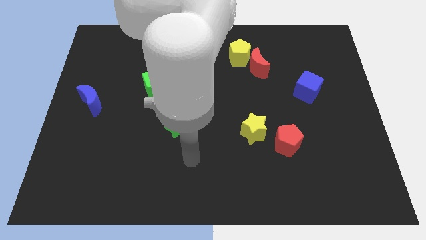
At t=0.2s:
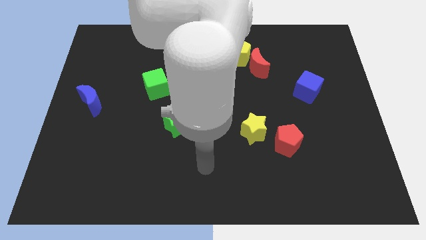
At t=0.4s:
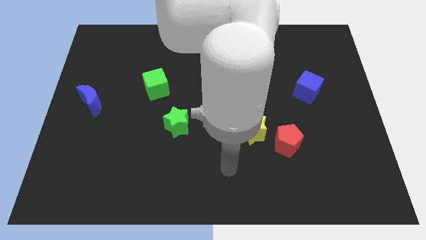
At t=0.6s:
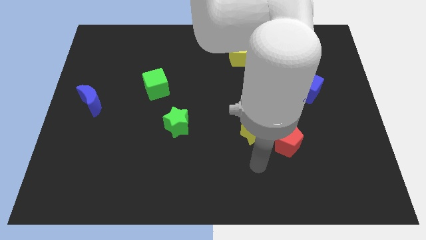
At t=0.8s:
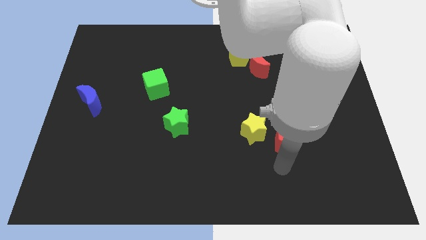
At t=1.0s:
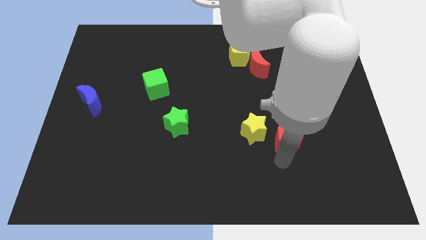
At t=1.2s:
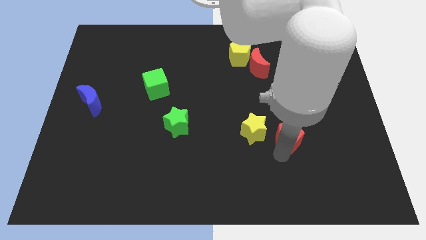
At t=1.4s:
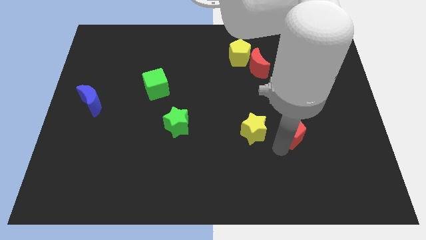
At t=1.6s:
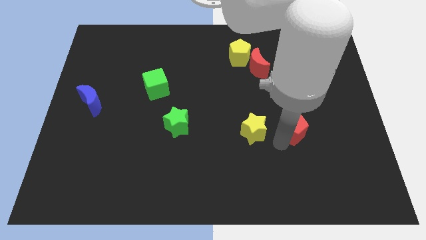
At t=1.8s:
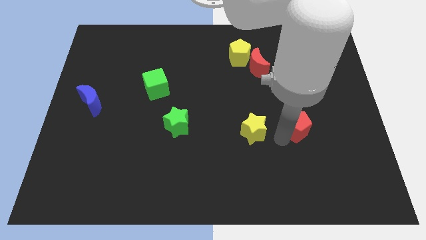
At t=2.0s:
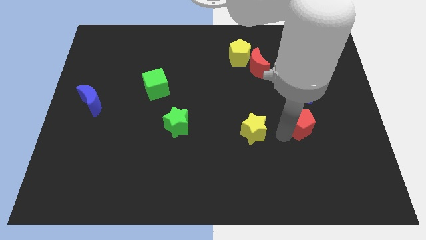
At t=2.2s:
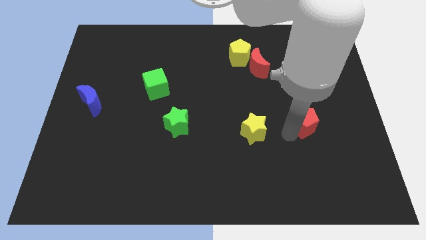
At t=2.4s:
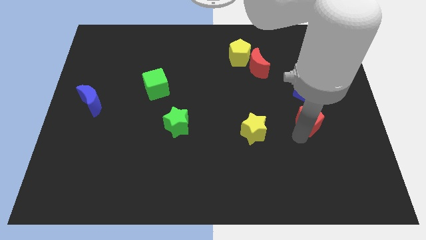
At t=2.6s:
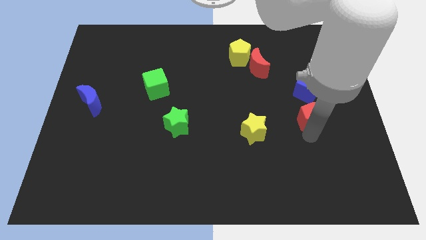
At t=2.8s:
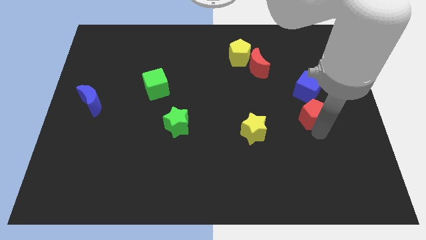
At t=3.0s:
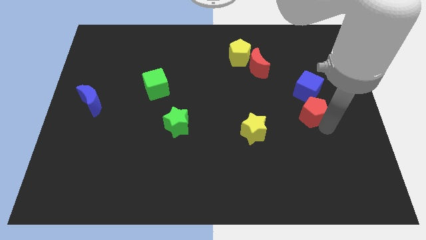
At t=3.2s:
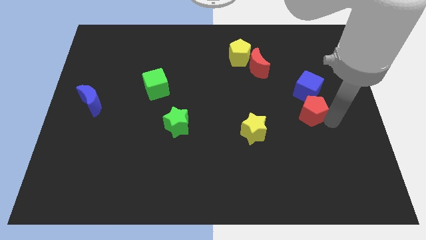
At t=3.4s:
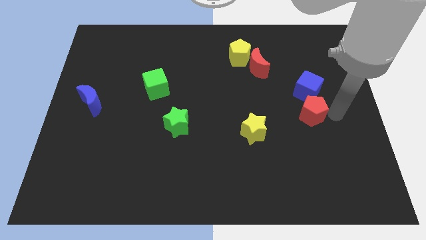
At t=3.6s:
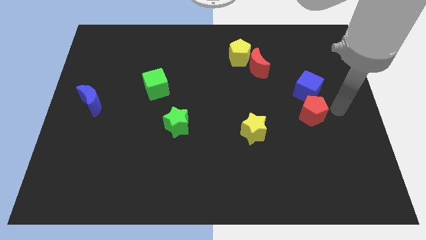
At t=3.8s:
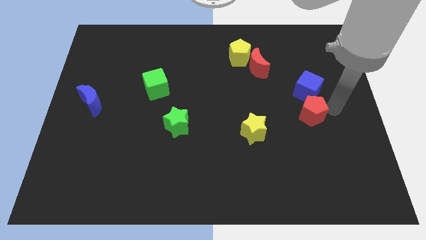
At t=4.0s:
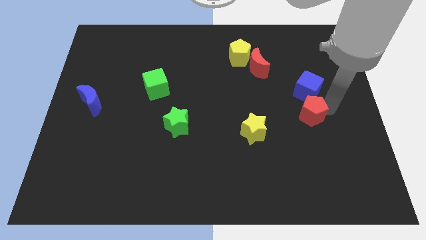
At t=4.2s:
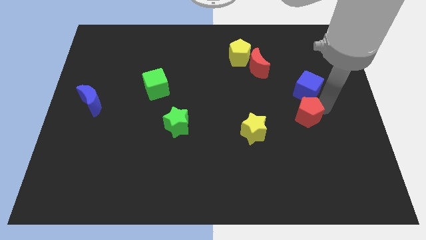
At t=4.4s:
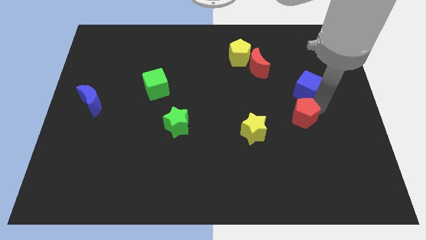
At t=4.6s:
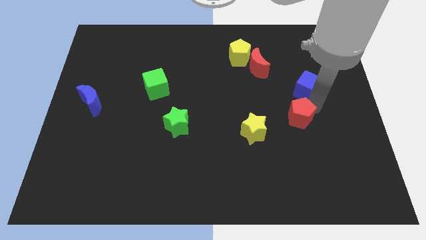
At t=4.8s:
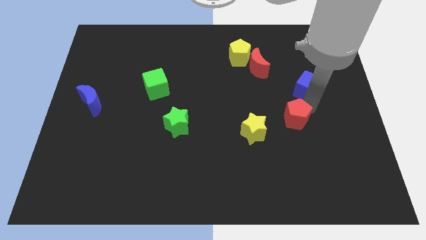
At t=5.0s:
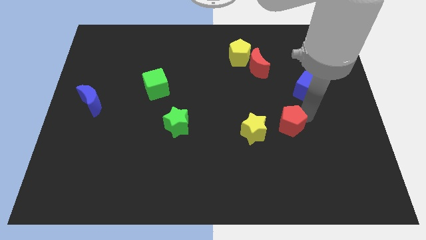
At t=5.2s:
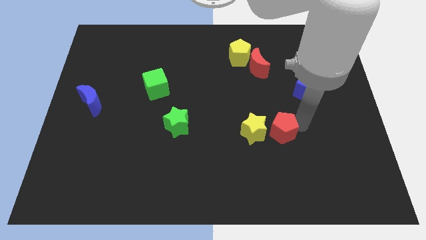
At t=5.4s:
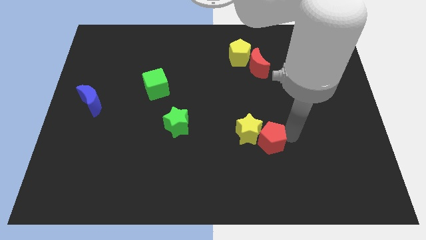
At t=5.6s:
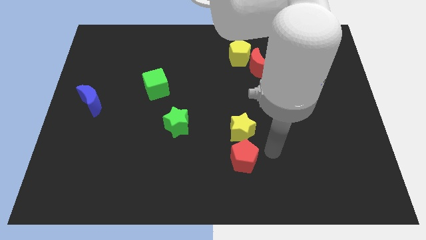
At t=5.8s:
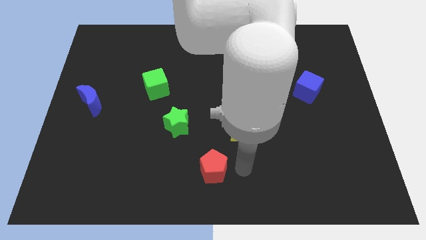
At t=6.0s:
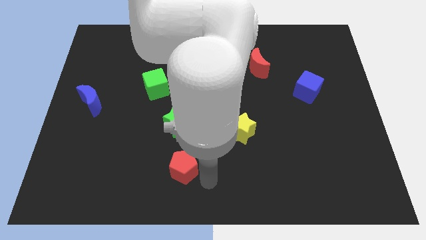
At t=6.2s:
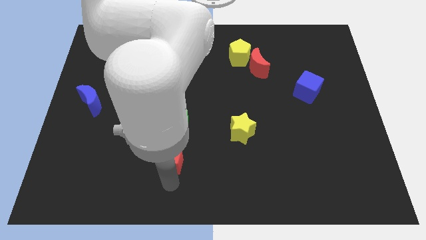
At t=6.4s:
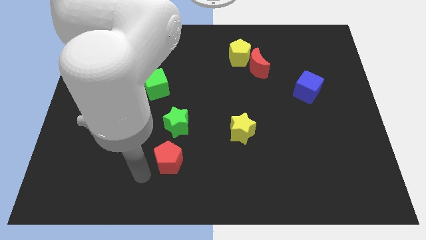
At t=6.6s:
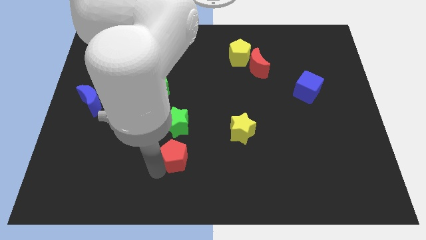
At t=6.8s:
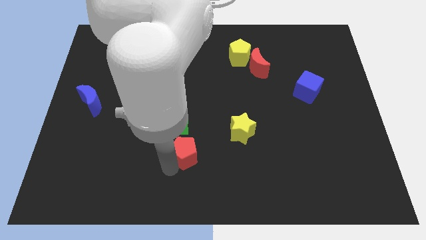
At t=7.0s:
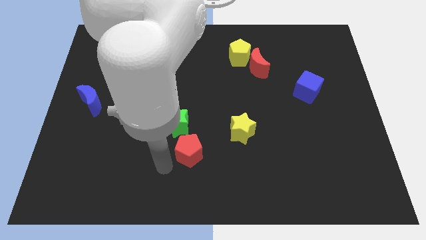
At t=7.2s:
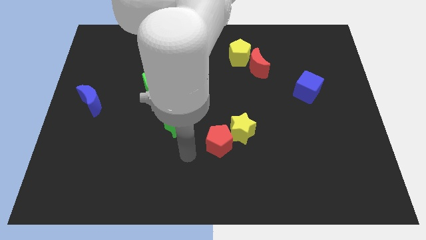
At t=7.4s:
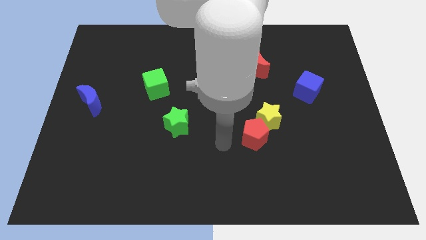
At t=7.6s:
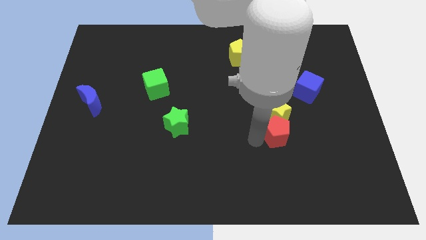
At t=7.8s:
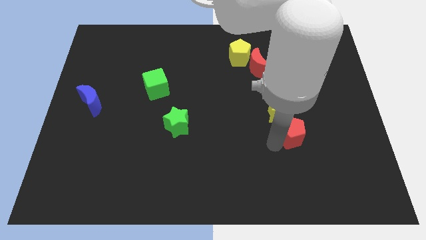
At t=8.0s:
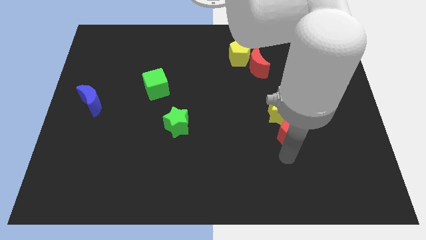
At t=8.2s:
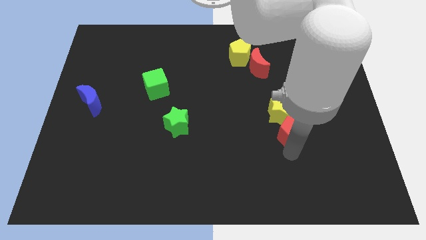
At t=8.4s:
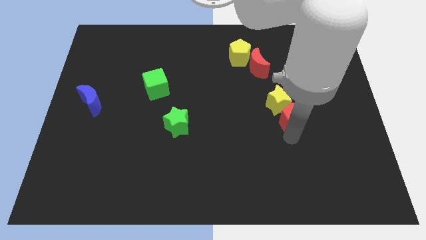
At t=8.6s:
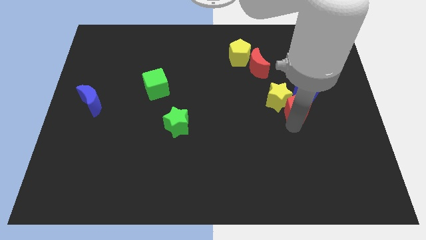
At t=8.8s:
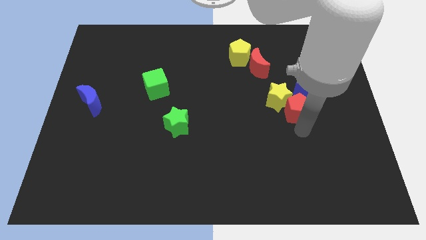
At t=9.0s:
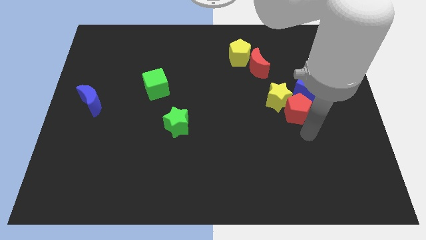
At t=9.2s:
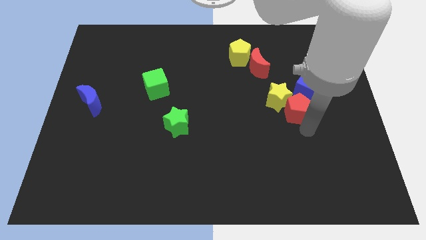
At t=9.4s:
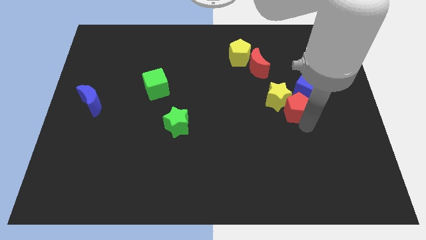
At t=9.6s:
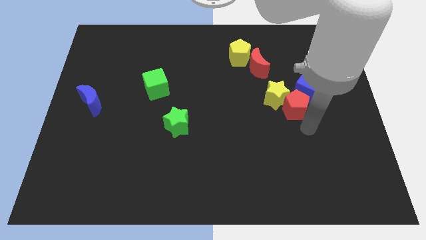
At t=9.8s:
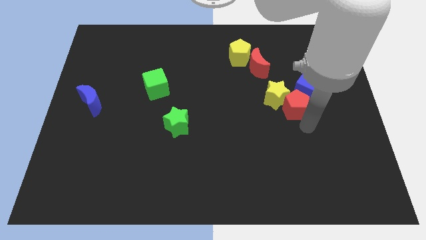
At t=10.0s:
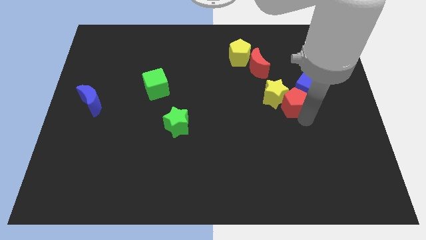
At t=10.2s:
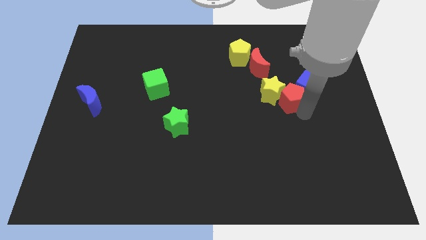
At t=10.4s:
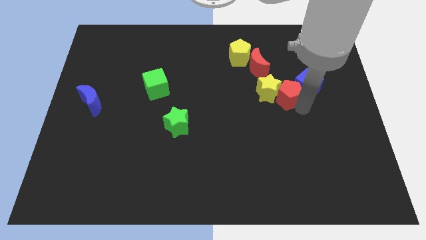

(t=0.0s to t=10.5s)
put the red pentagon diagonally down and to the right of the red moon

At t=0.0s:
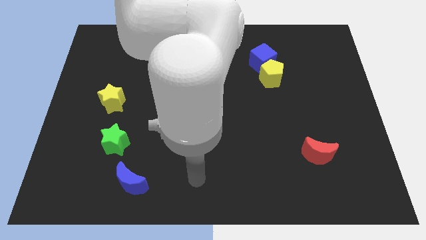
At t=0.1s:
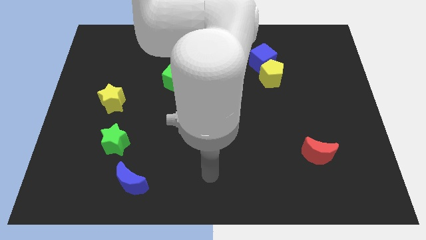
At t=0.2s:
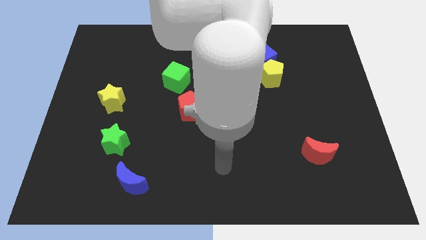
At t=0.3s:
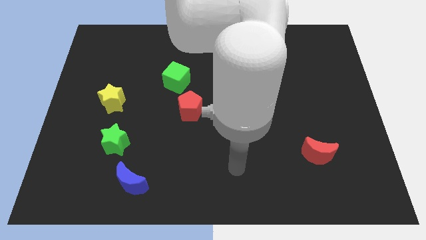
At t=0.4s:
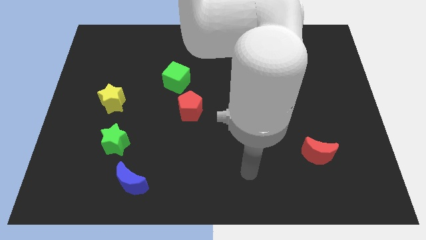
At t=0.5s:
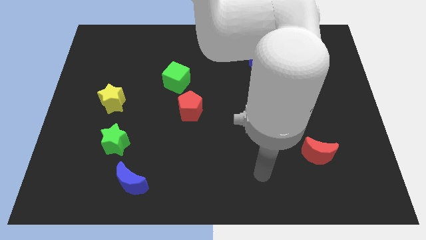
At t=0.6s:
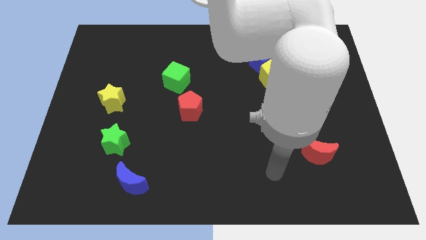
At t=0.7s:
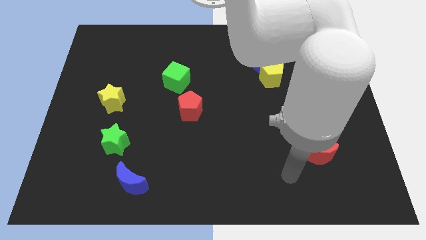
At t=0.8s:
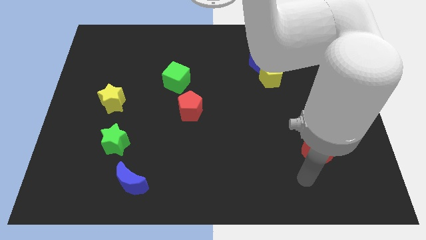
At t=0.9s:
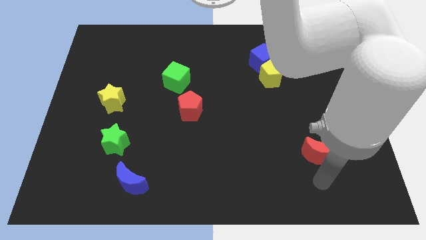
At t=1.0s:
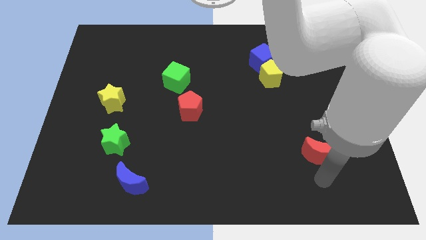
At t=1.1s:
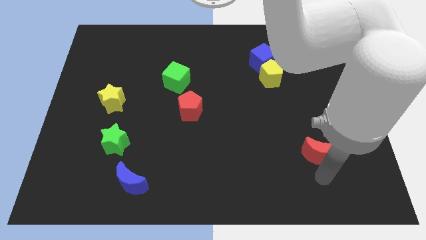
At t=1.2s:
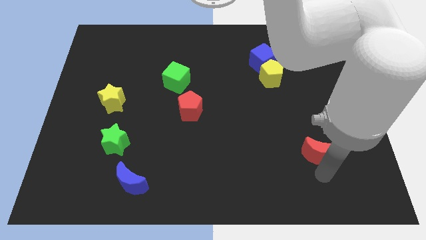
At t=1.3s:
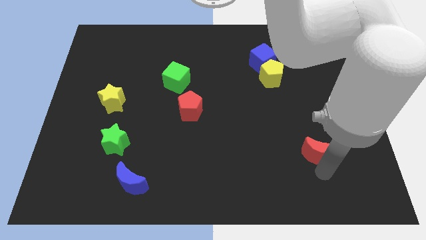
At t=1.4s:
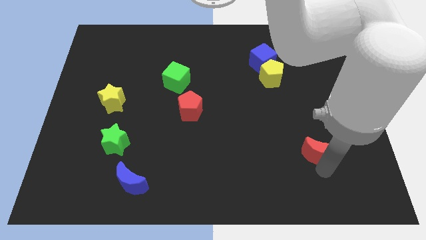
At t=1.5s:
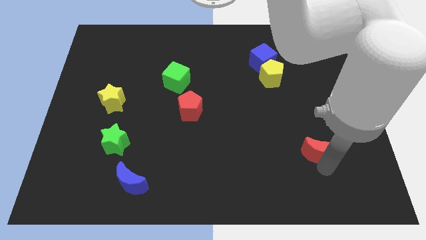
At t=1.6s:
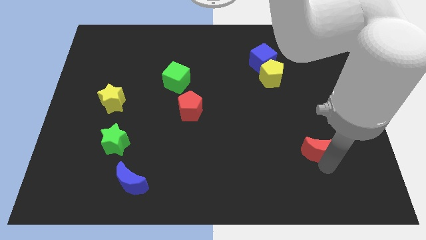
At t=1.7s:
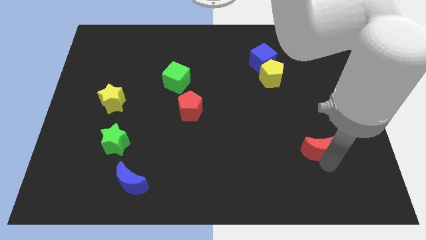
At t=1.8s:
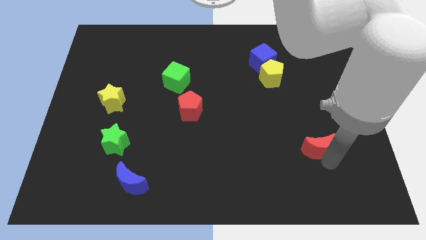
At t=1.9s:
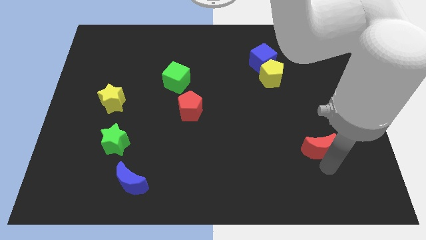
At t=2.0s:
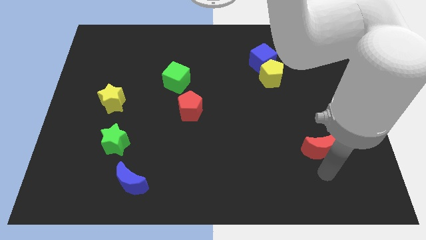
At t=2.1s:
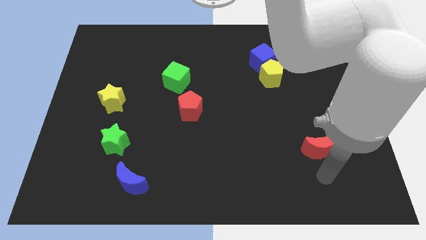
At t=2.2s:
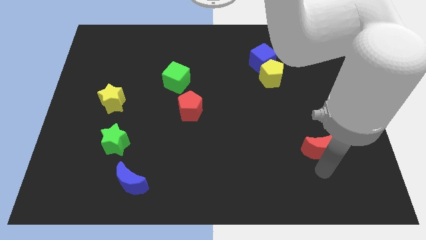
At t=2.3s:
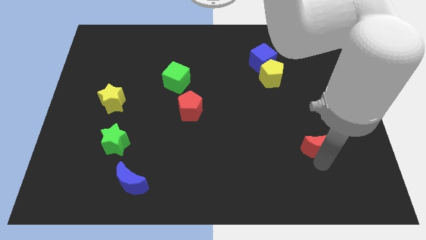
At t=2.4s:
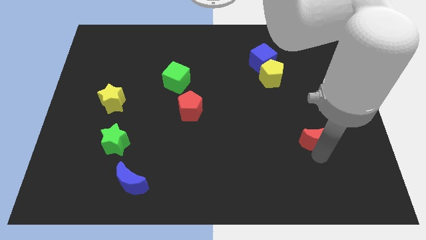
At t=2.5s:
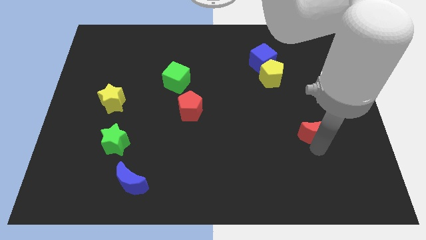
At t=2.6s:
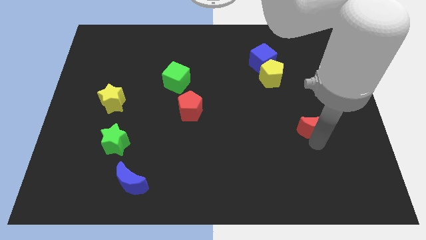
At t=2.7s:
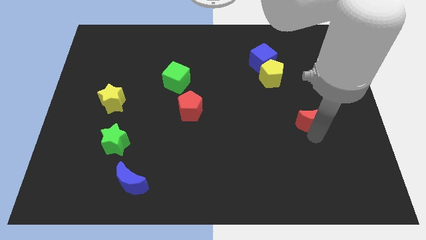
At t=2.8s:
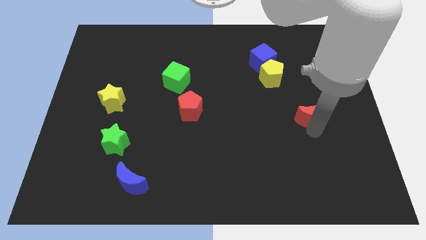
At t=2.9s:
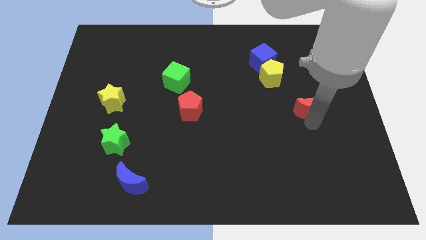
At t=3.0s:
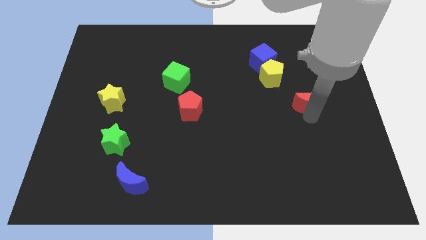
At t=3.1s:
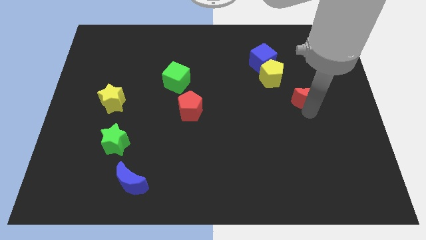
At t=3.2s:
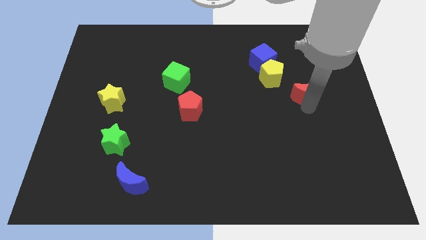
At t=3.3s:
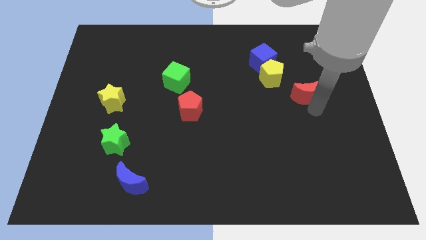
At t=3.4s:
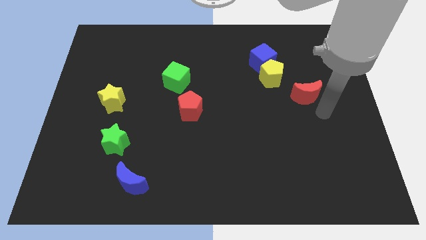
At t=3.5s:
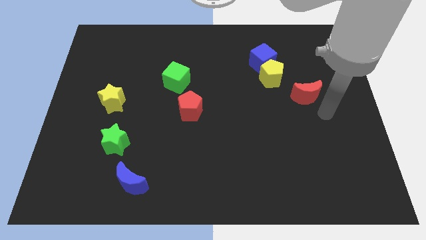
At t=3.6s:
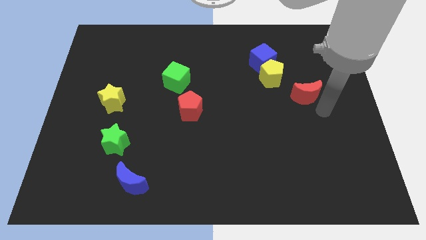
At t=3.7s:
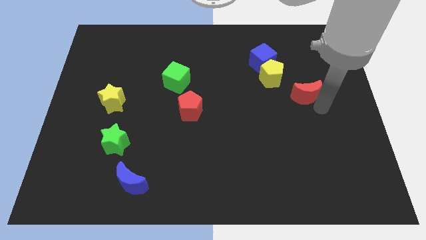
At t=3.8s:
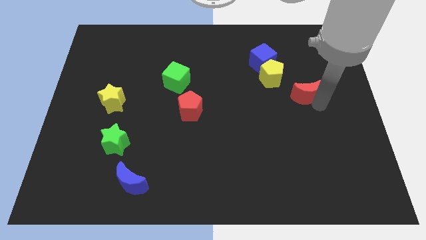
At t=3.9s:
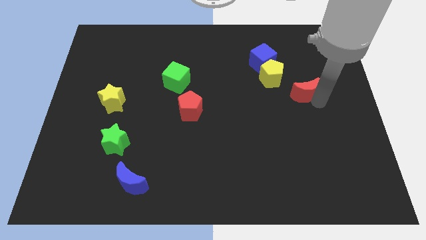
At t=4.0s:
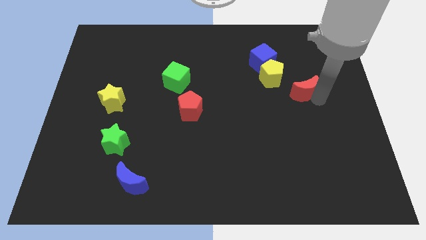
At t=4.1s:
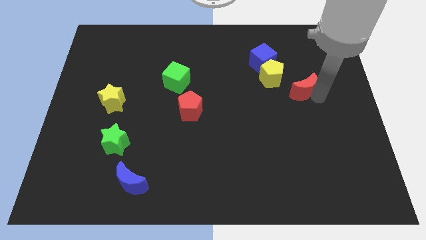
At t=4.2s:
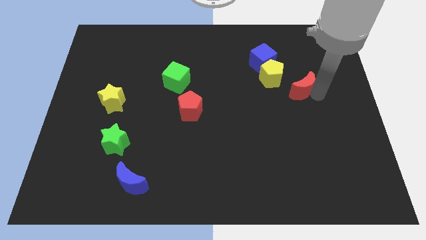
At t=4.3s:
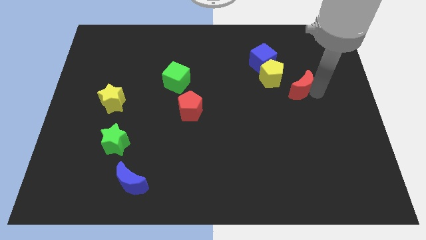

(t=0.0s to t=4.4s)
move the red moon to the bottom right of the blue cube
